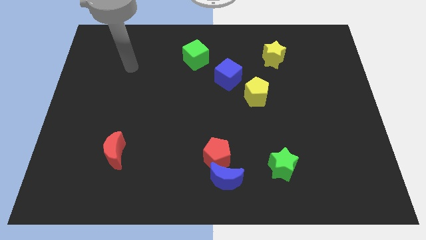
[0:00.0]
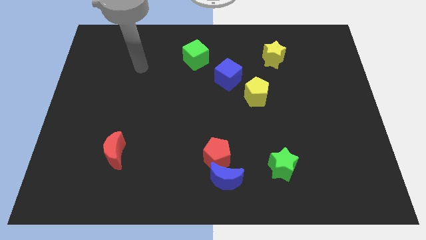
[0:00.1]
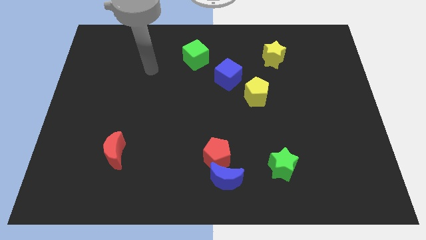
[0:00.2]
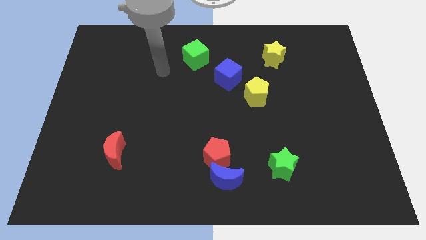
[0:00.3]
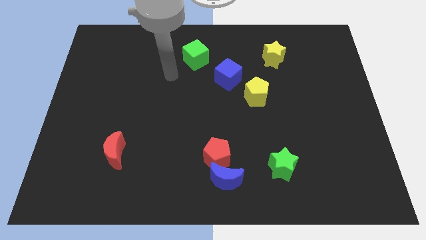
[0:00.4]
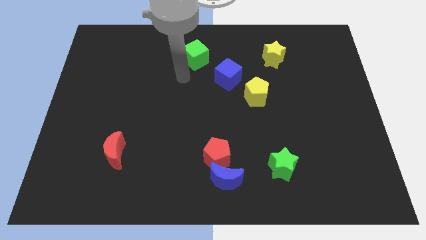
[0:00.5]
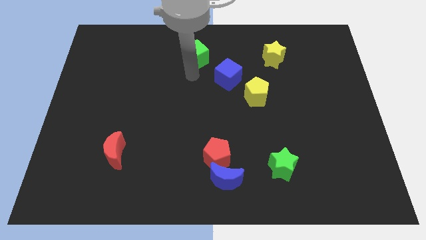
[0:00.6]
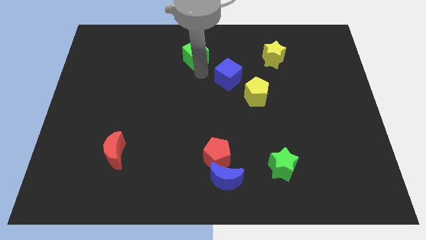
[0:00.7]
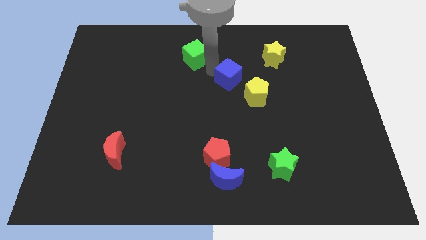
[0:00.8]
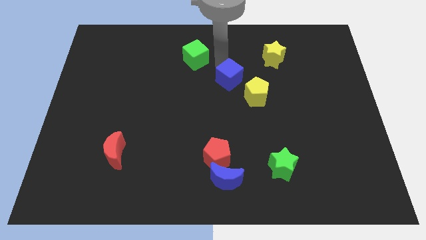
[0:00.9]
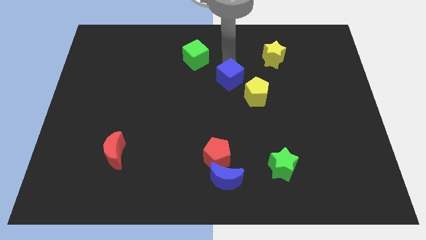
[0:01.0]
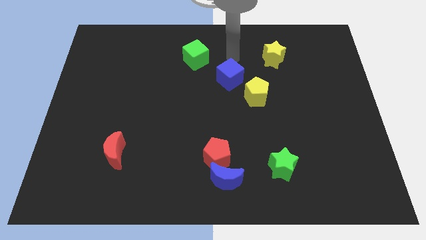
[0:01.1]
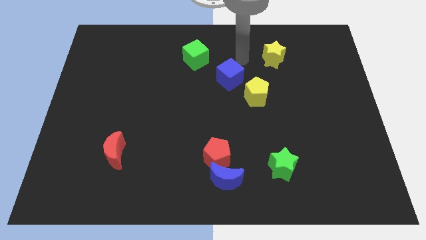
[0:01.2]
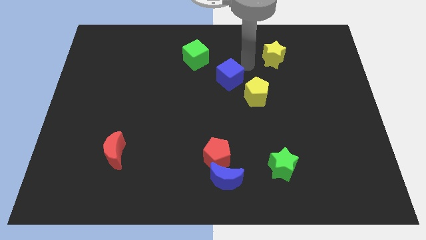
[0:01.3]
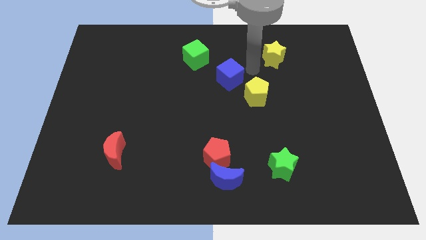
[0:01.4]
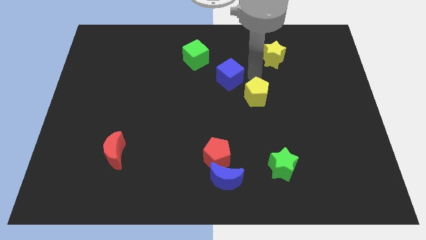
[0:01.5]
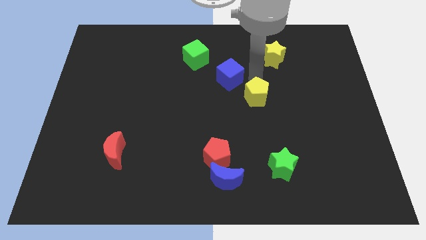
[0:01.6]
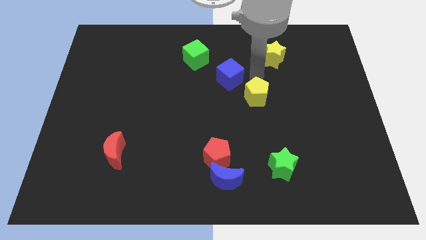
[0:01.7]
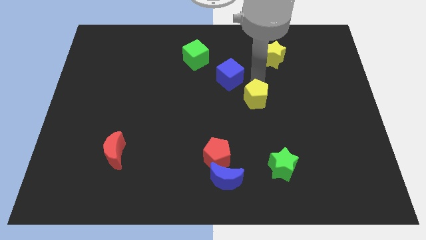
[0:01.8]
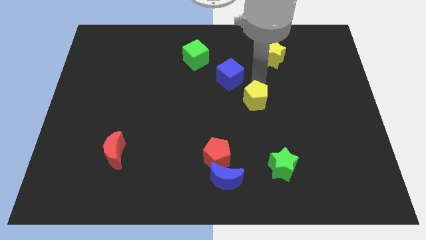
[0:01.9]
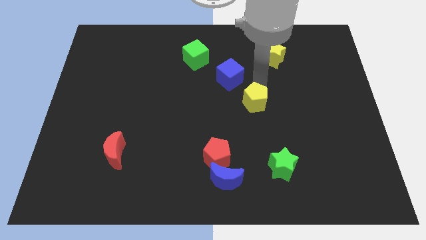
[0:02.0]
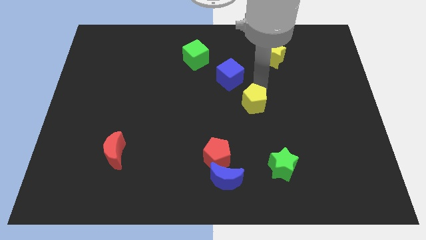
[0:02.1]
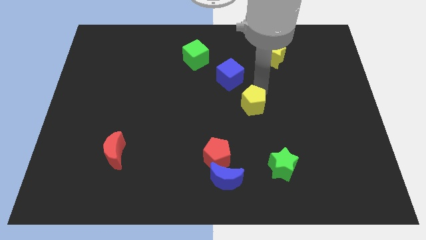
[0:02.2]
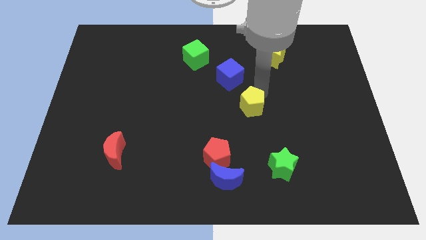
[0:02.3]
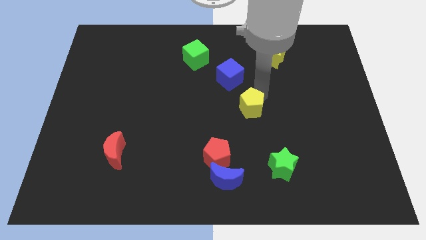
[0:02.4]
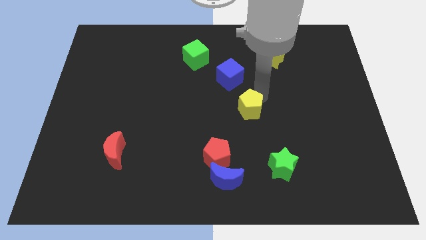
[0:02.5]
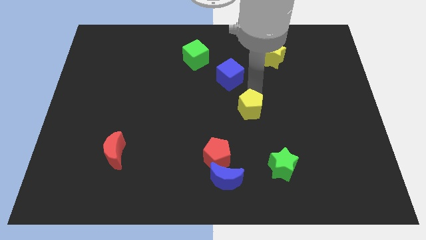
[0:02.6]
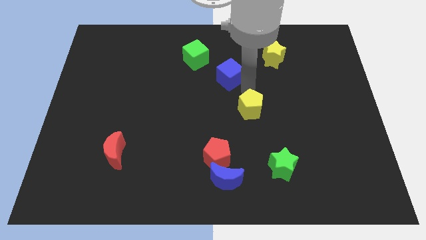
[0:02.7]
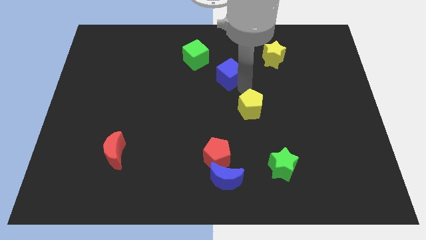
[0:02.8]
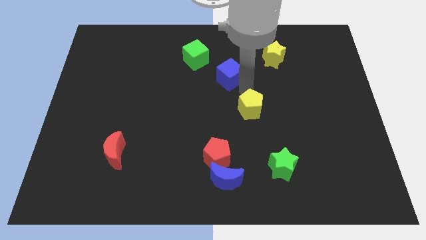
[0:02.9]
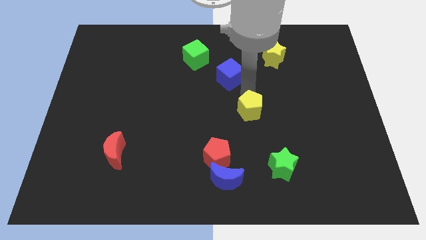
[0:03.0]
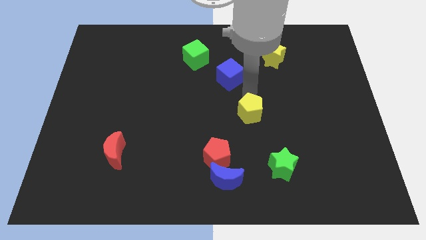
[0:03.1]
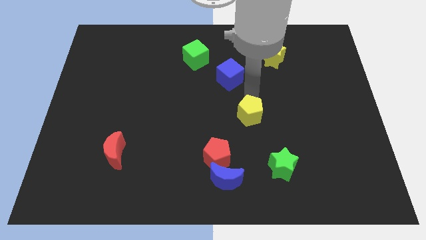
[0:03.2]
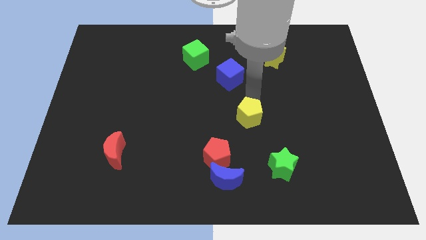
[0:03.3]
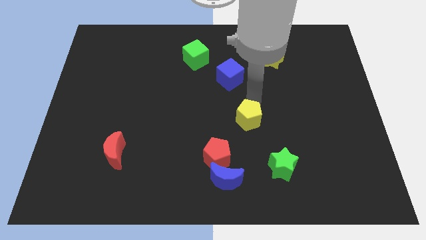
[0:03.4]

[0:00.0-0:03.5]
slide the yellow pentagon down a bit

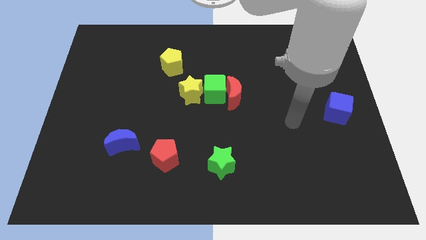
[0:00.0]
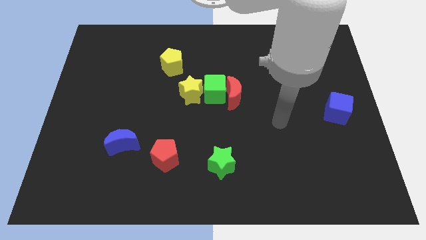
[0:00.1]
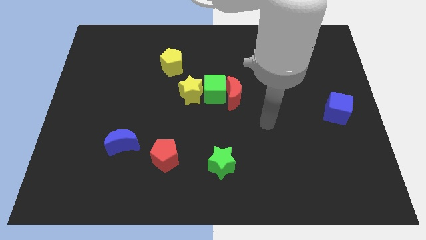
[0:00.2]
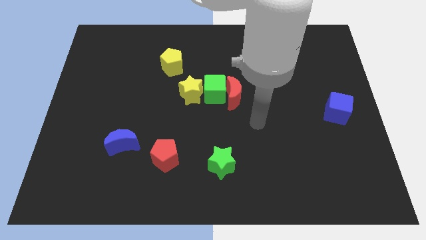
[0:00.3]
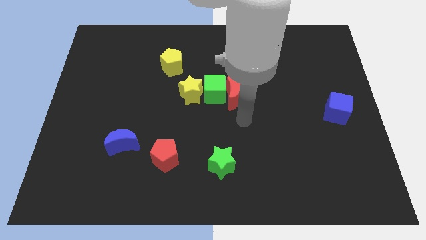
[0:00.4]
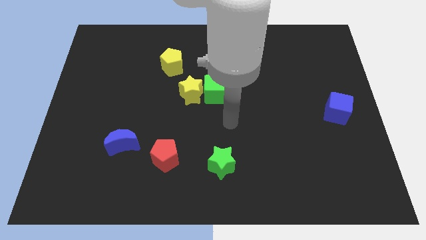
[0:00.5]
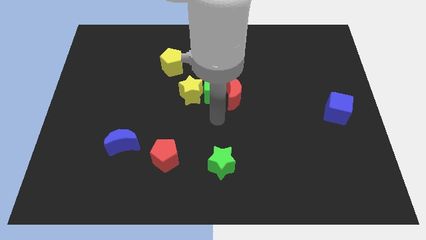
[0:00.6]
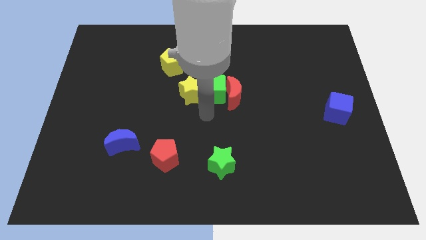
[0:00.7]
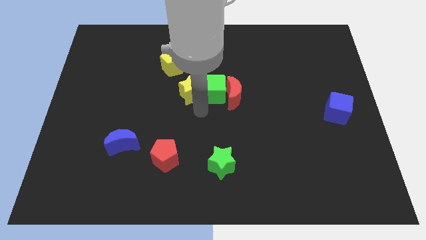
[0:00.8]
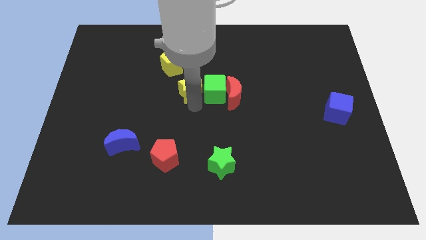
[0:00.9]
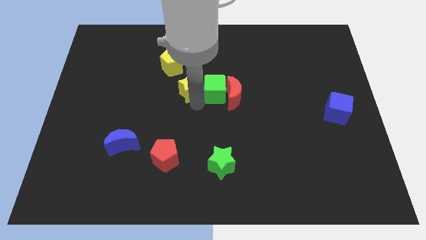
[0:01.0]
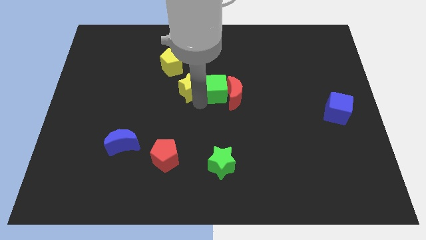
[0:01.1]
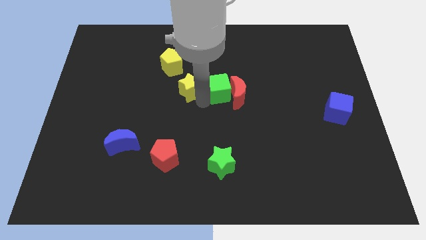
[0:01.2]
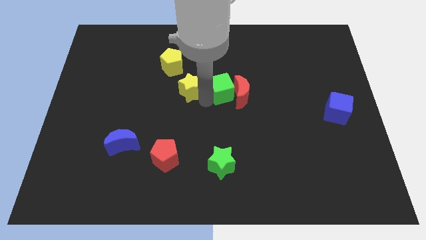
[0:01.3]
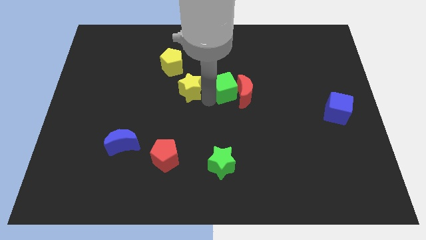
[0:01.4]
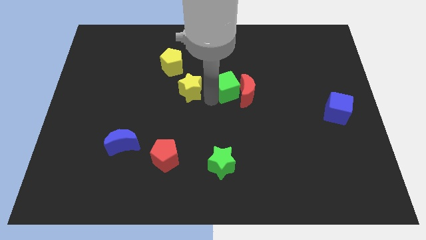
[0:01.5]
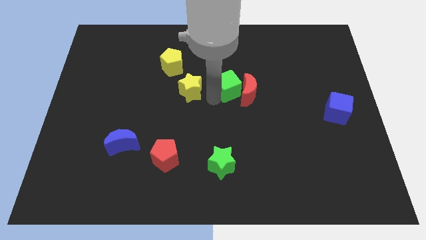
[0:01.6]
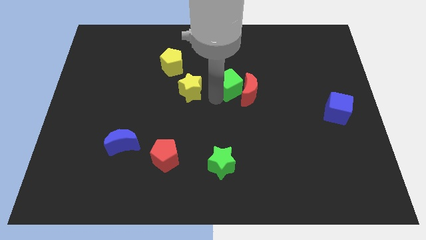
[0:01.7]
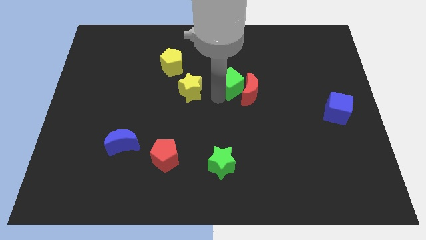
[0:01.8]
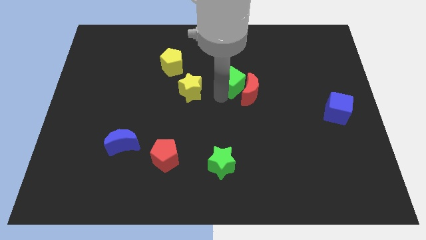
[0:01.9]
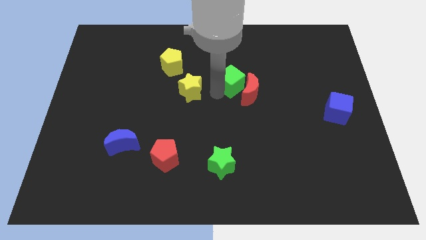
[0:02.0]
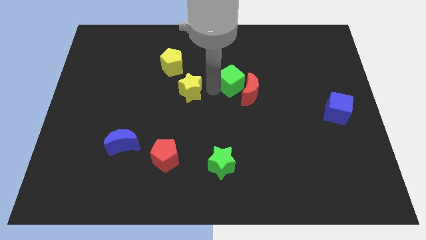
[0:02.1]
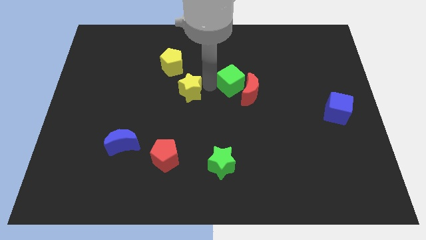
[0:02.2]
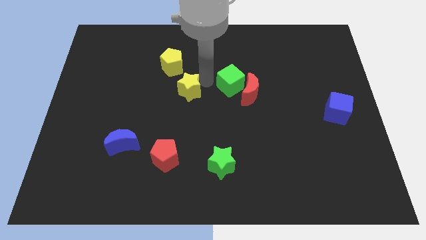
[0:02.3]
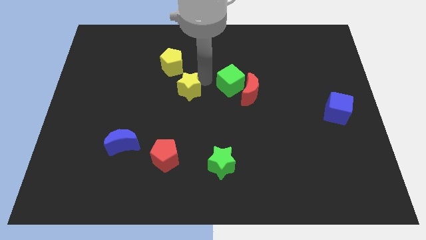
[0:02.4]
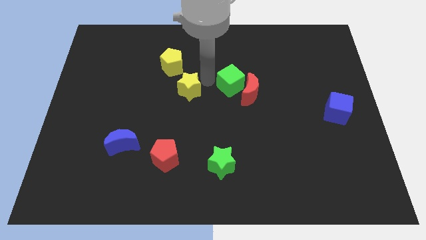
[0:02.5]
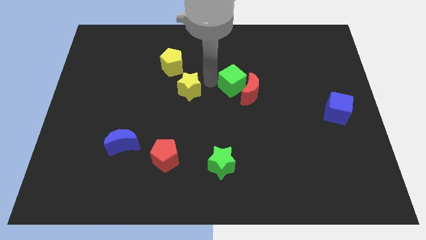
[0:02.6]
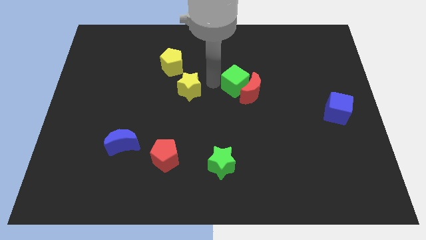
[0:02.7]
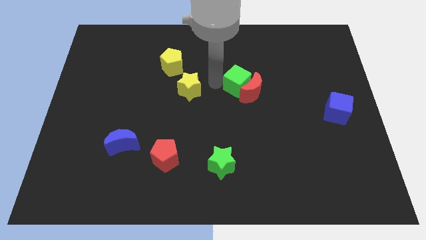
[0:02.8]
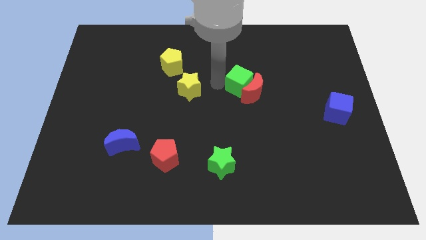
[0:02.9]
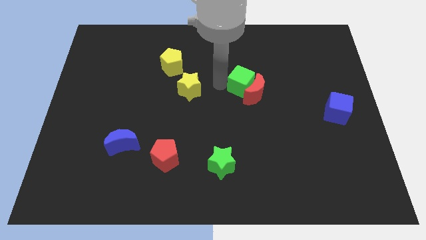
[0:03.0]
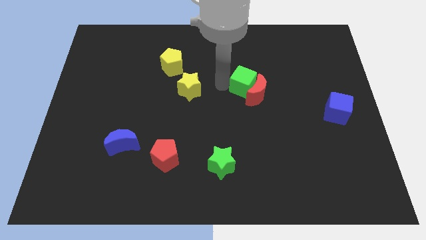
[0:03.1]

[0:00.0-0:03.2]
push the green cube a bit right

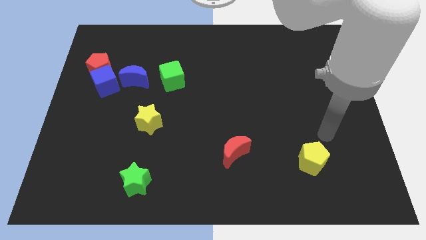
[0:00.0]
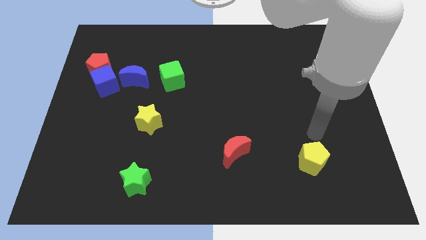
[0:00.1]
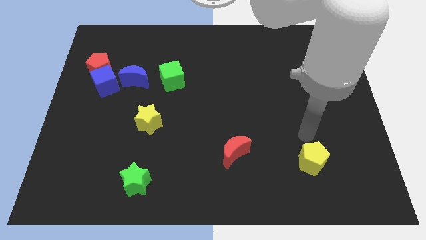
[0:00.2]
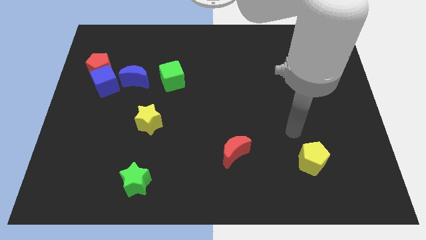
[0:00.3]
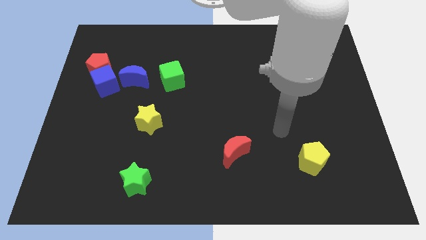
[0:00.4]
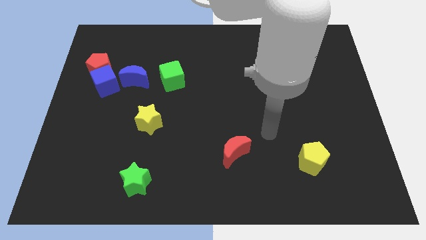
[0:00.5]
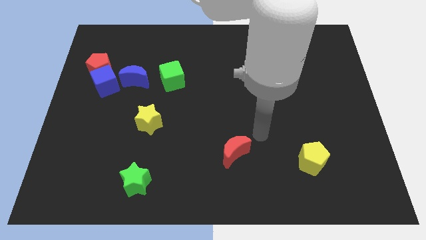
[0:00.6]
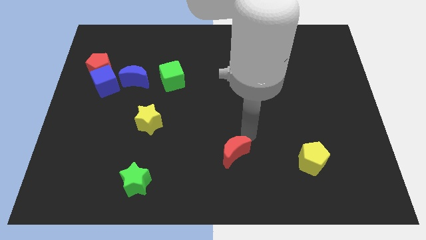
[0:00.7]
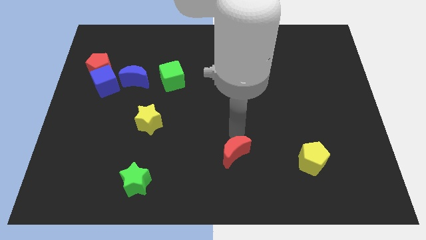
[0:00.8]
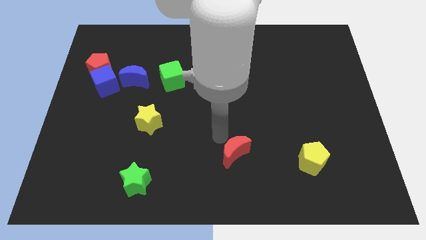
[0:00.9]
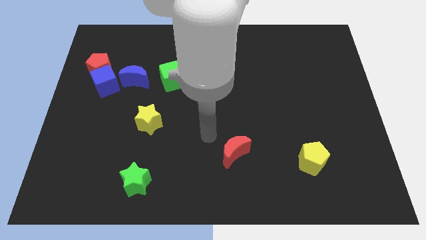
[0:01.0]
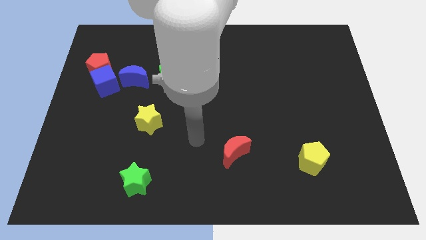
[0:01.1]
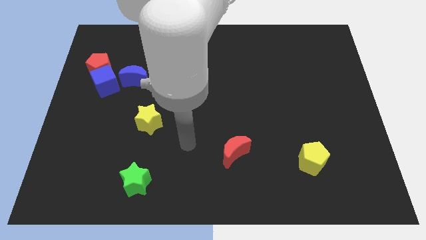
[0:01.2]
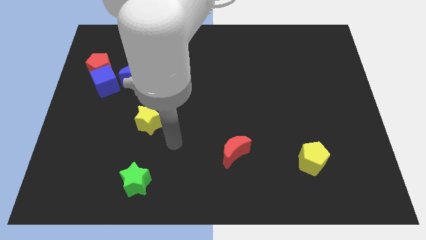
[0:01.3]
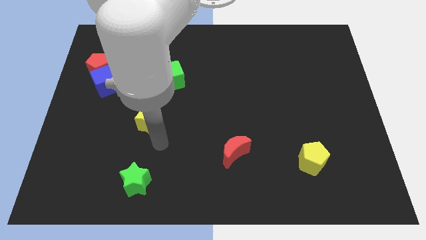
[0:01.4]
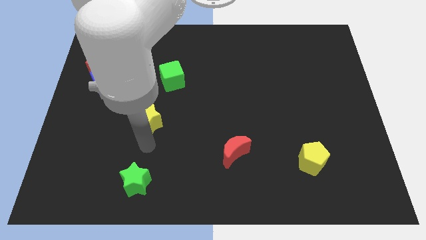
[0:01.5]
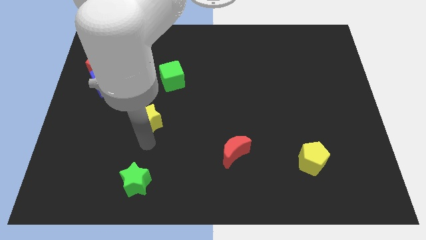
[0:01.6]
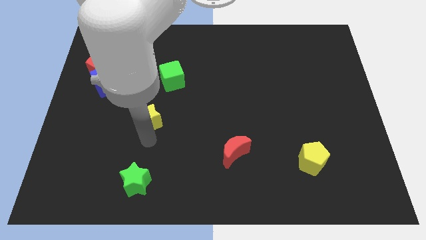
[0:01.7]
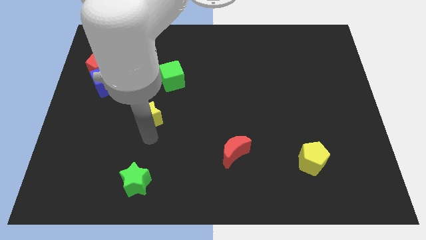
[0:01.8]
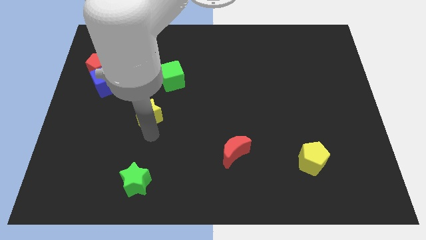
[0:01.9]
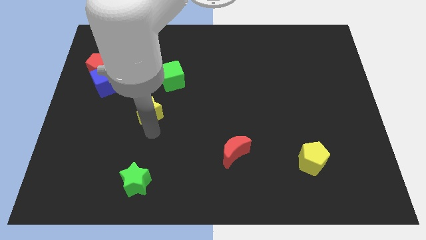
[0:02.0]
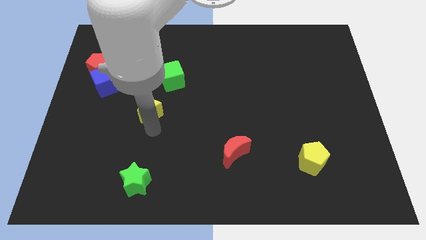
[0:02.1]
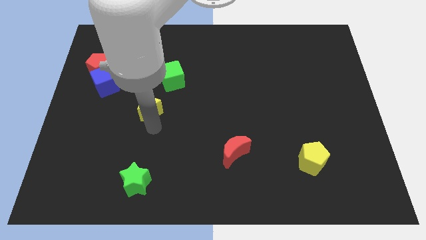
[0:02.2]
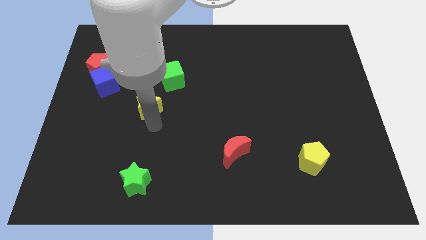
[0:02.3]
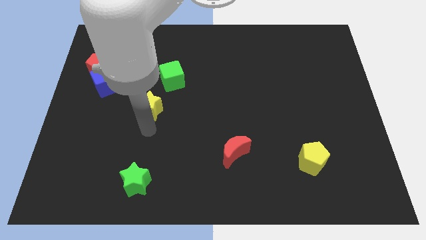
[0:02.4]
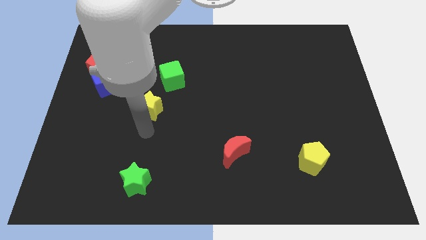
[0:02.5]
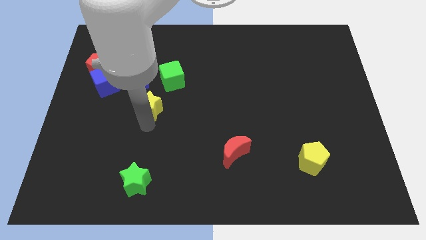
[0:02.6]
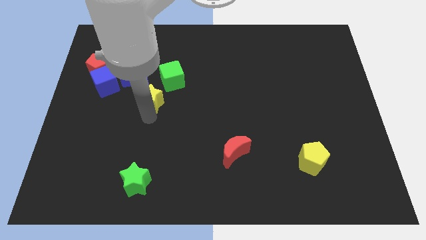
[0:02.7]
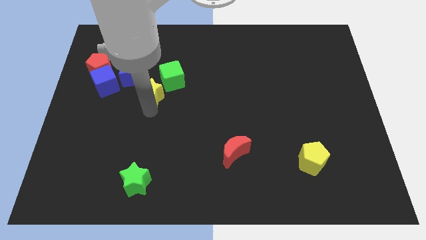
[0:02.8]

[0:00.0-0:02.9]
push the yellow star up slightly
